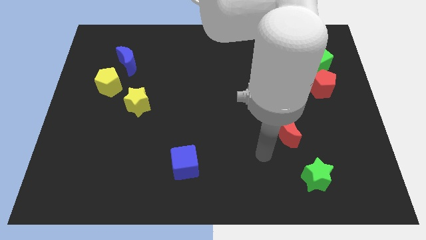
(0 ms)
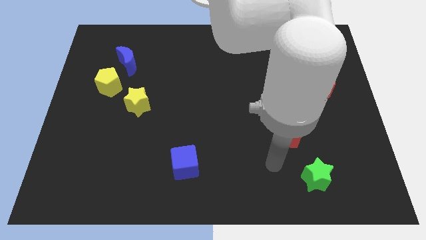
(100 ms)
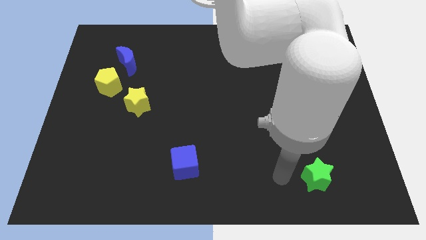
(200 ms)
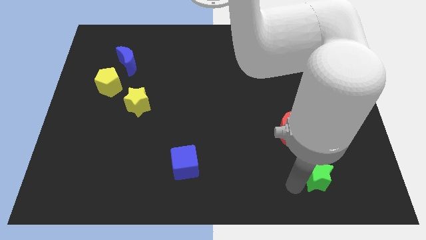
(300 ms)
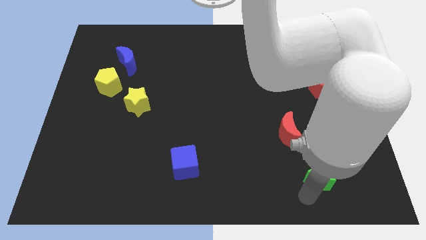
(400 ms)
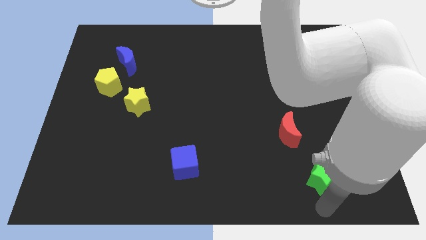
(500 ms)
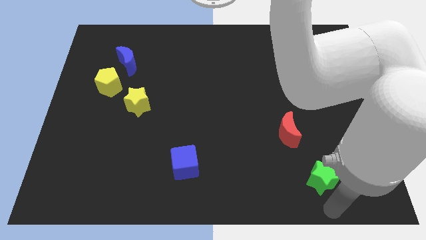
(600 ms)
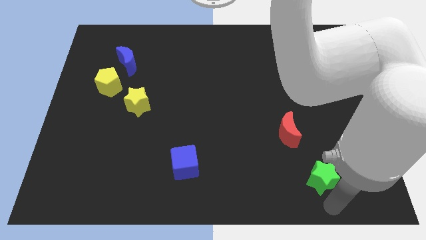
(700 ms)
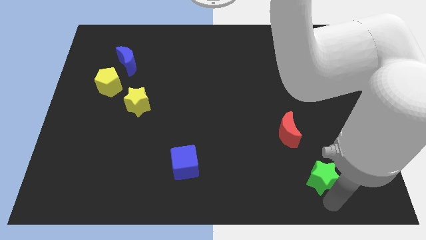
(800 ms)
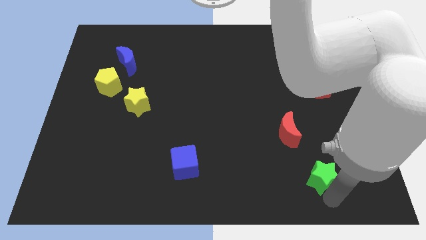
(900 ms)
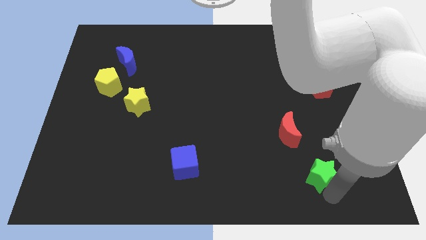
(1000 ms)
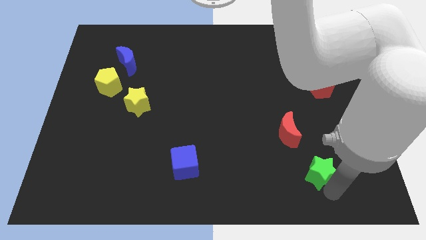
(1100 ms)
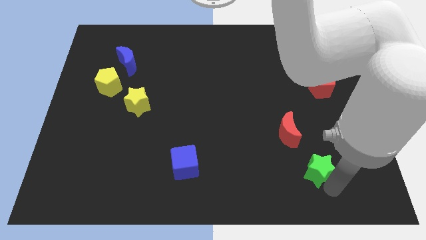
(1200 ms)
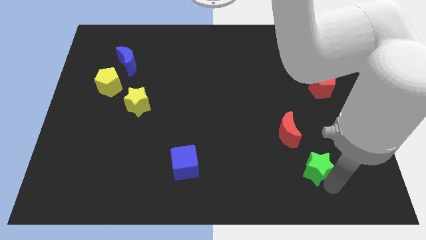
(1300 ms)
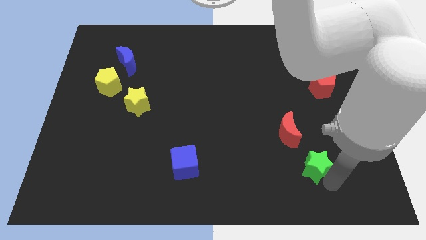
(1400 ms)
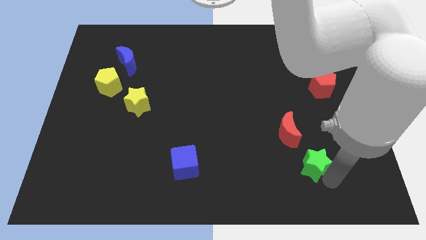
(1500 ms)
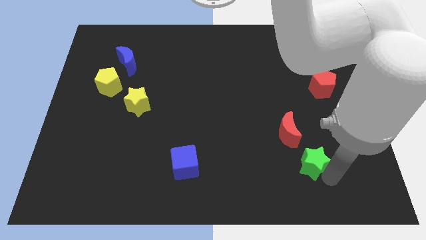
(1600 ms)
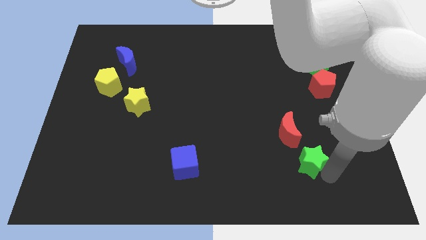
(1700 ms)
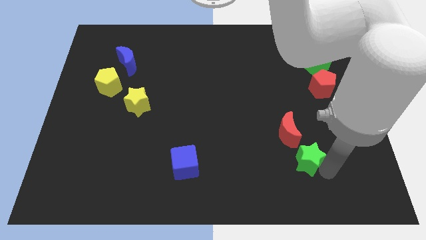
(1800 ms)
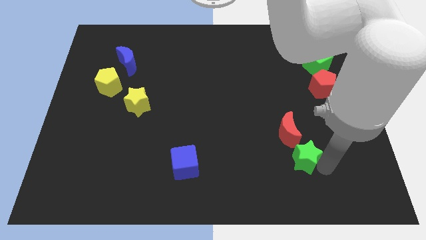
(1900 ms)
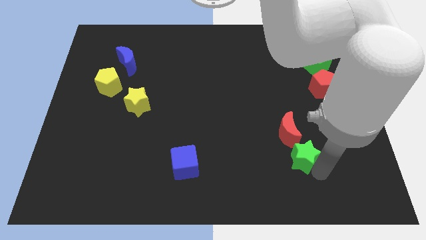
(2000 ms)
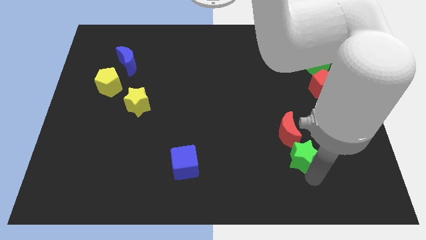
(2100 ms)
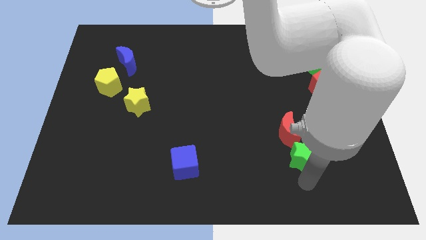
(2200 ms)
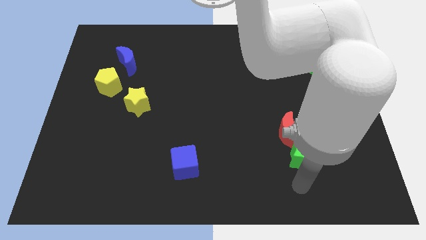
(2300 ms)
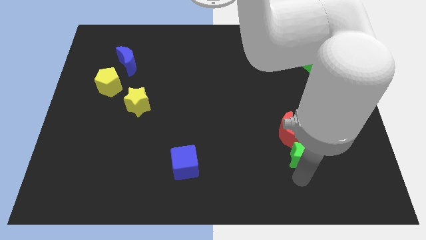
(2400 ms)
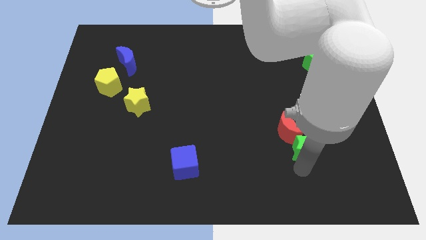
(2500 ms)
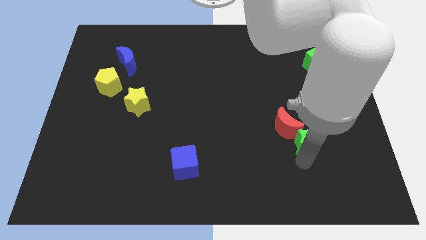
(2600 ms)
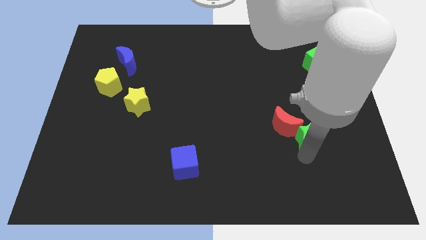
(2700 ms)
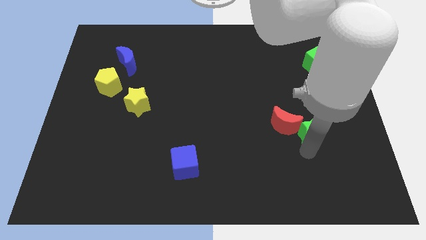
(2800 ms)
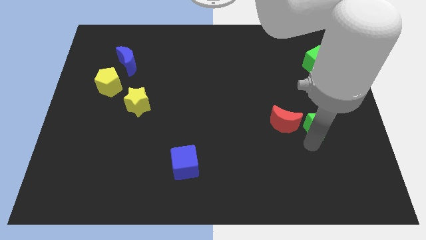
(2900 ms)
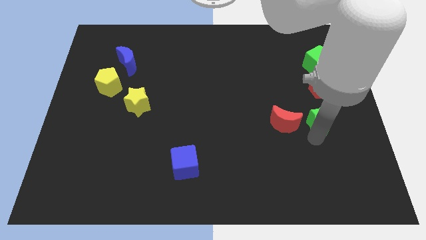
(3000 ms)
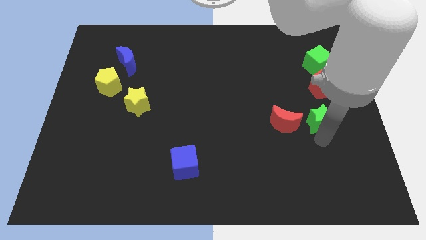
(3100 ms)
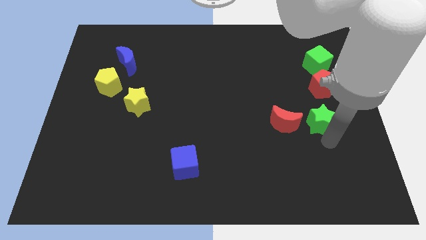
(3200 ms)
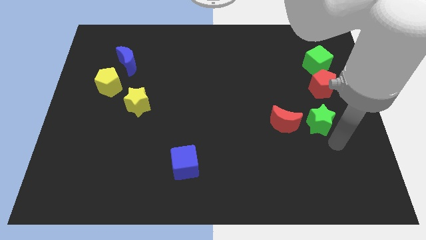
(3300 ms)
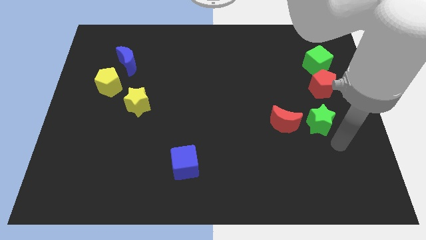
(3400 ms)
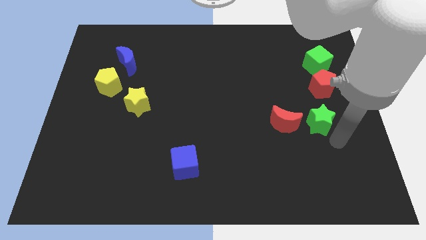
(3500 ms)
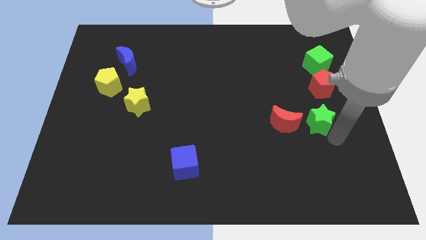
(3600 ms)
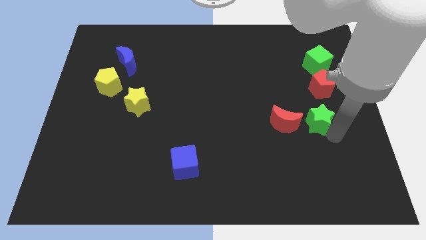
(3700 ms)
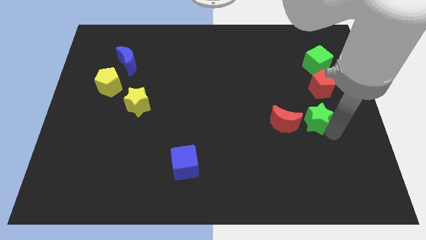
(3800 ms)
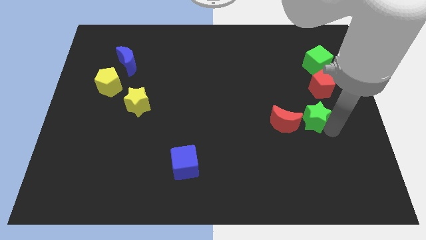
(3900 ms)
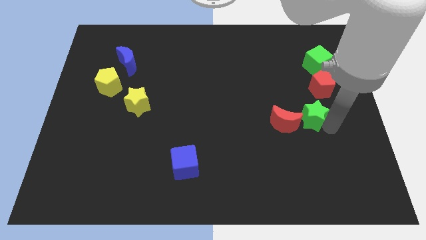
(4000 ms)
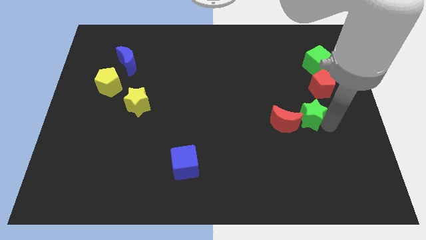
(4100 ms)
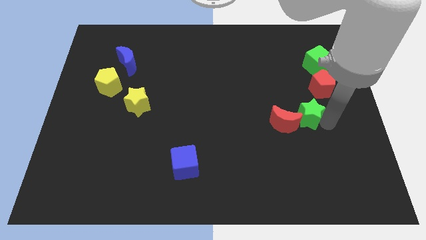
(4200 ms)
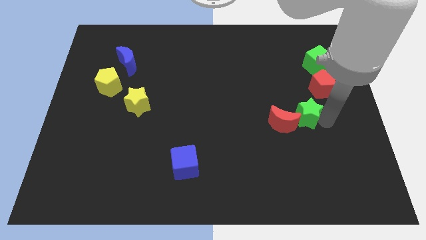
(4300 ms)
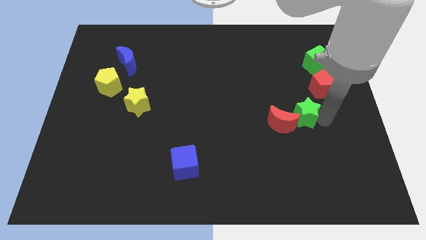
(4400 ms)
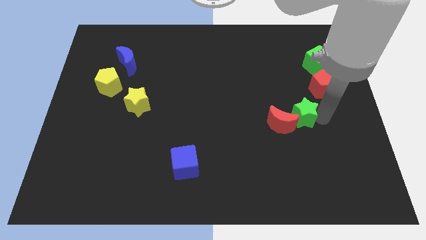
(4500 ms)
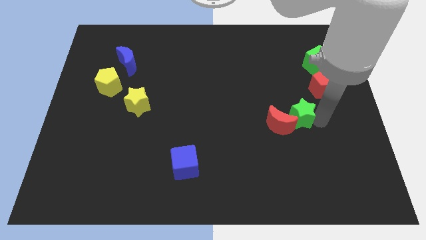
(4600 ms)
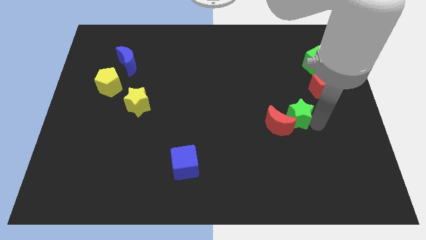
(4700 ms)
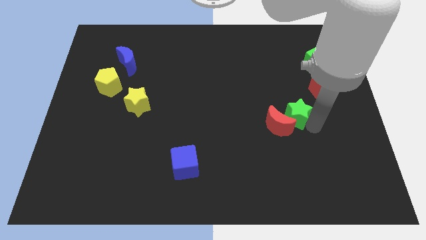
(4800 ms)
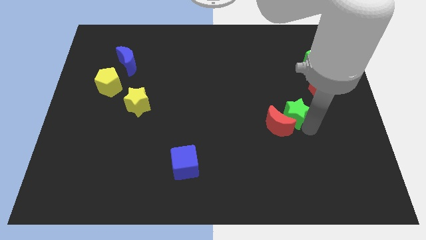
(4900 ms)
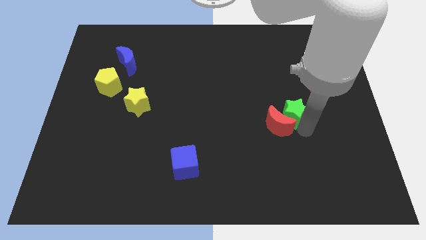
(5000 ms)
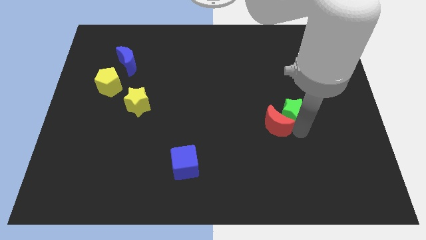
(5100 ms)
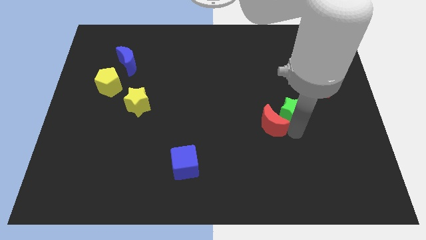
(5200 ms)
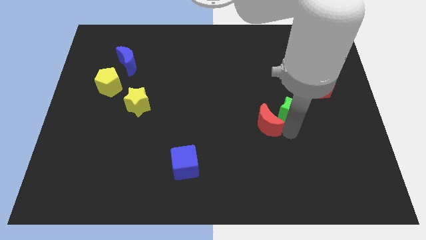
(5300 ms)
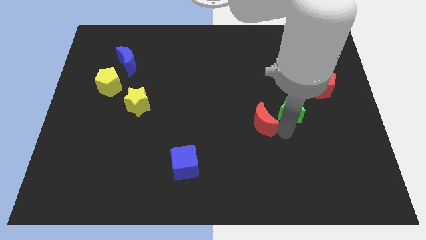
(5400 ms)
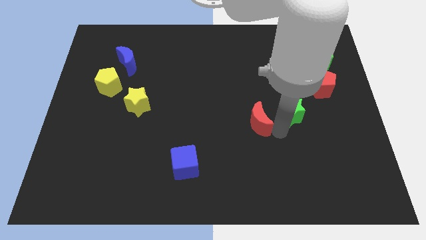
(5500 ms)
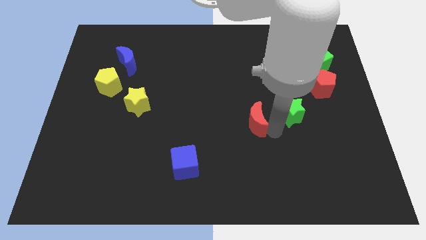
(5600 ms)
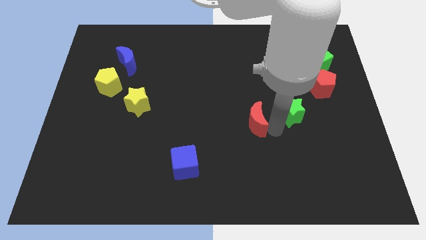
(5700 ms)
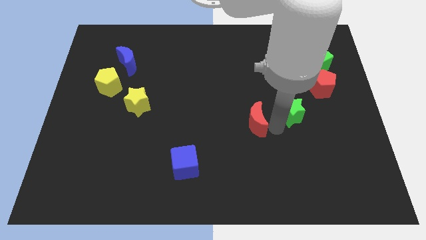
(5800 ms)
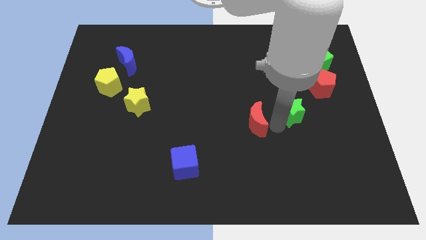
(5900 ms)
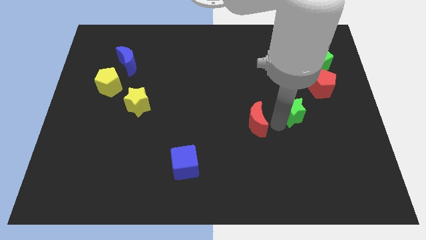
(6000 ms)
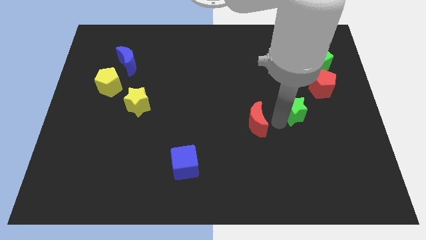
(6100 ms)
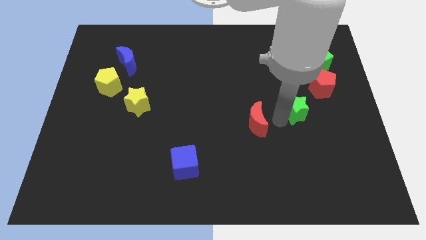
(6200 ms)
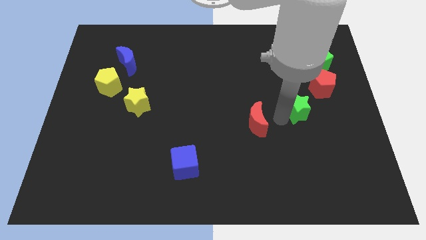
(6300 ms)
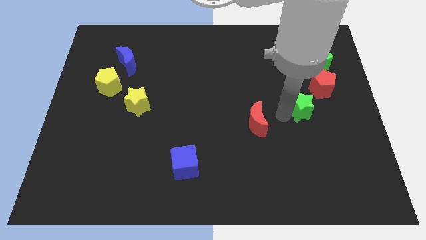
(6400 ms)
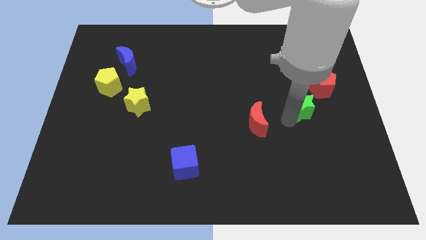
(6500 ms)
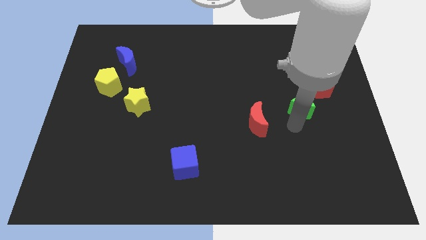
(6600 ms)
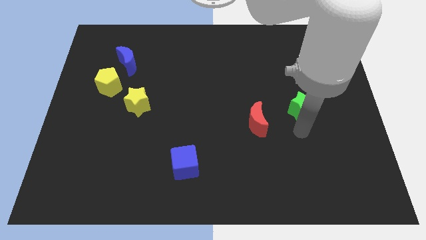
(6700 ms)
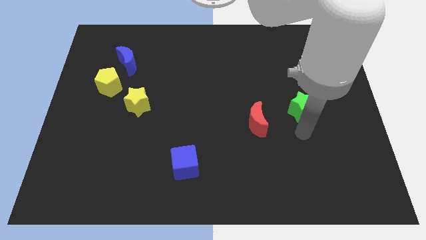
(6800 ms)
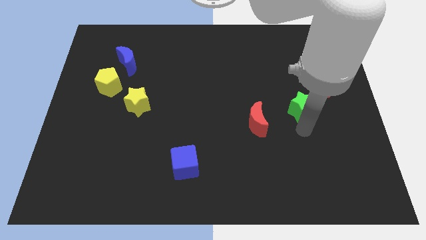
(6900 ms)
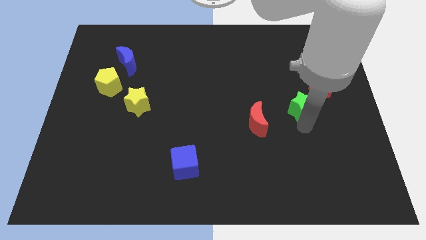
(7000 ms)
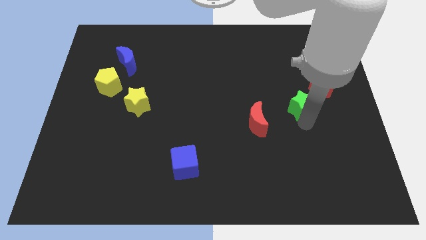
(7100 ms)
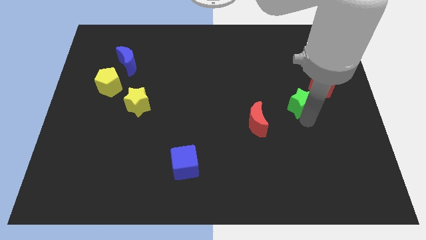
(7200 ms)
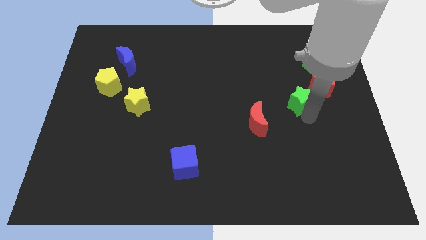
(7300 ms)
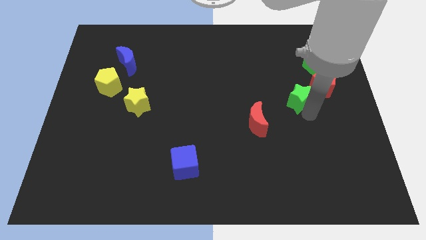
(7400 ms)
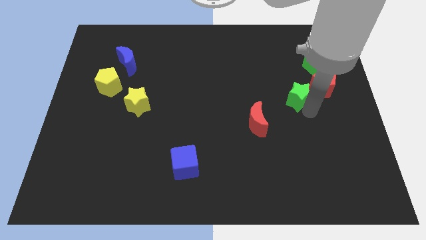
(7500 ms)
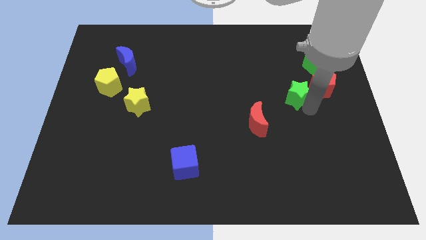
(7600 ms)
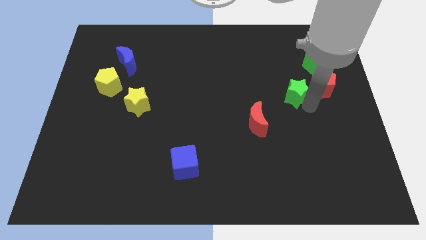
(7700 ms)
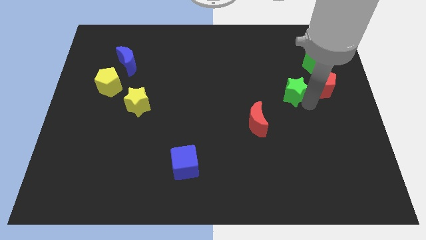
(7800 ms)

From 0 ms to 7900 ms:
slide the green star to the bottom left side of the green cube
